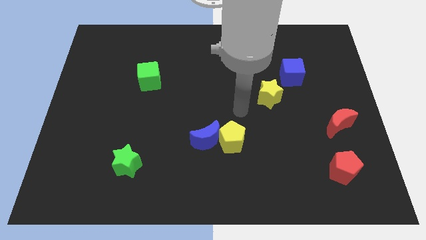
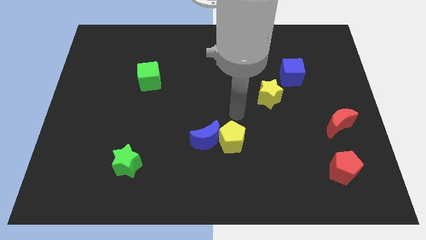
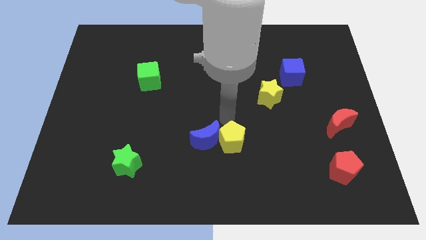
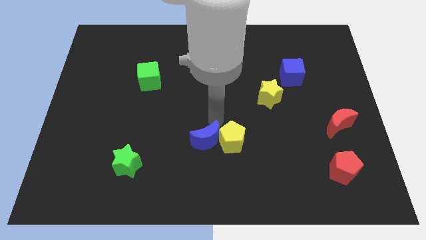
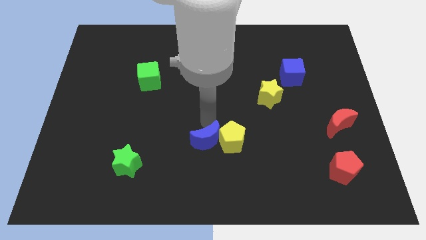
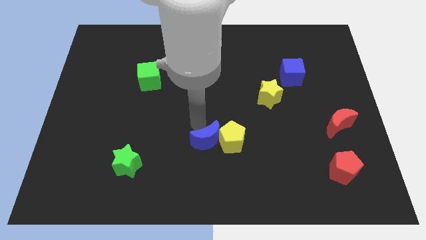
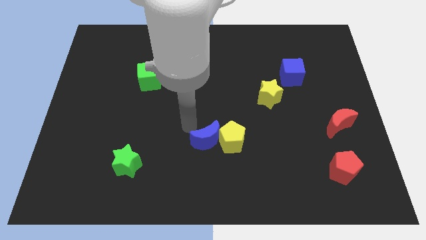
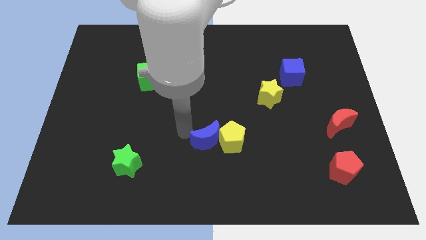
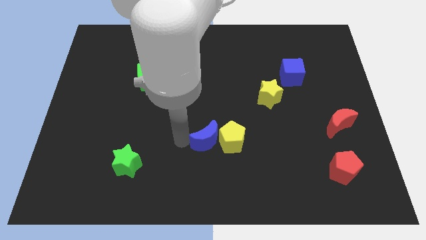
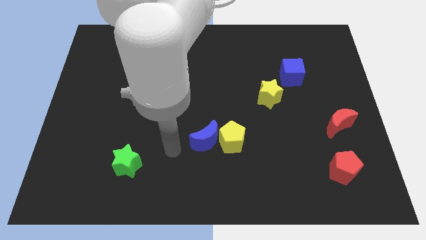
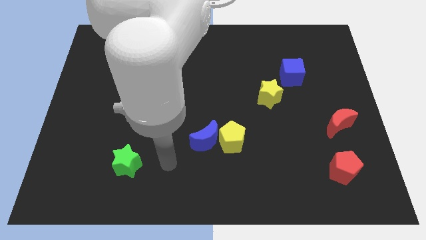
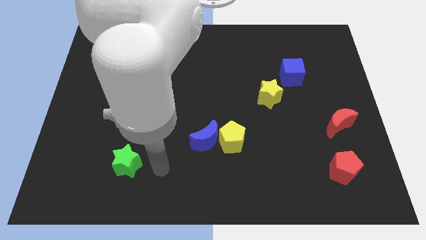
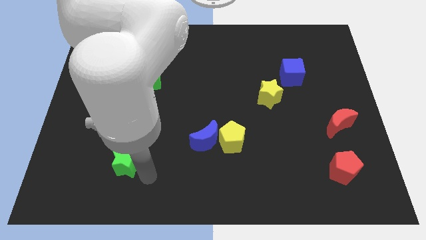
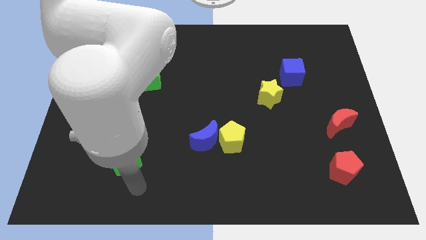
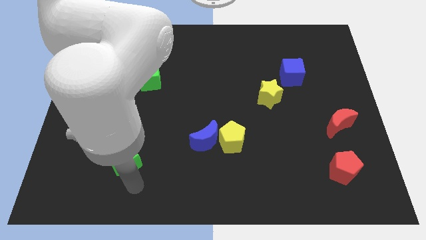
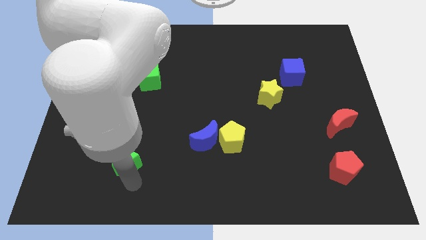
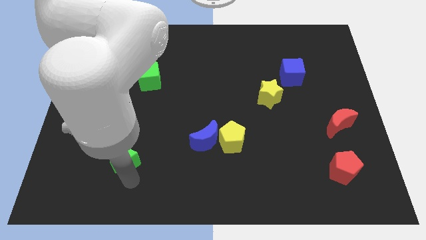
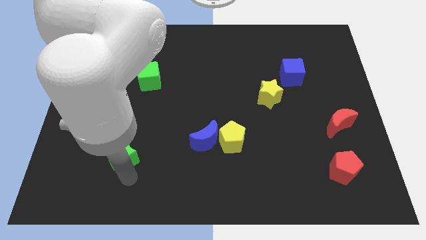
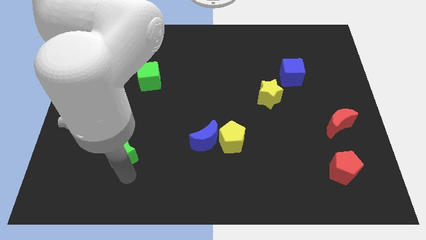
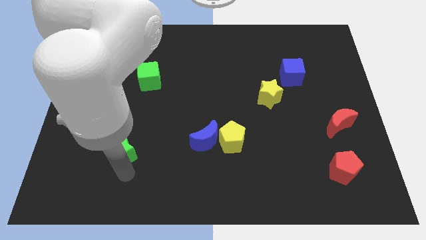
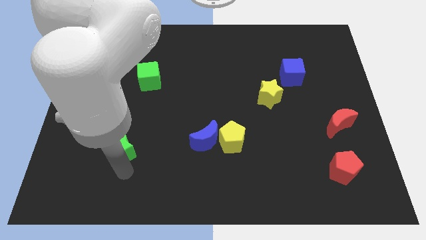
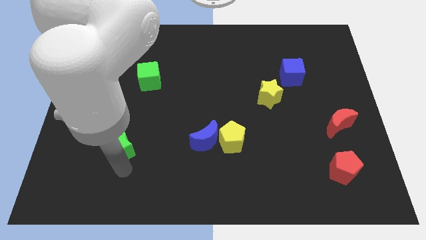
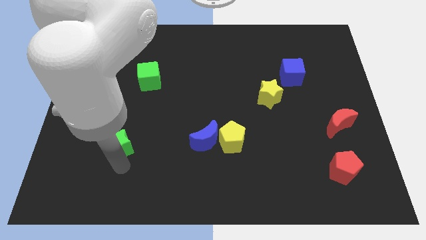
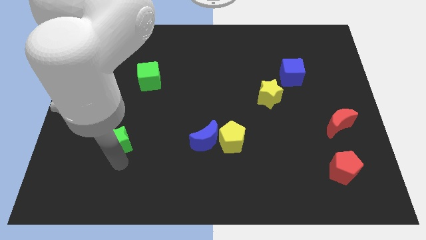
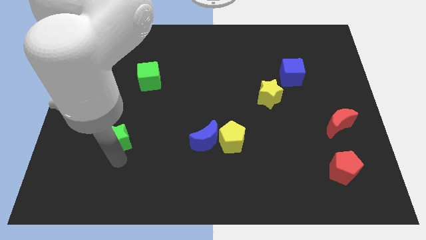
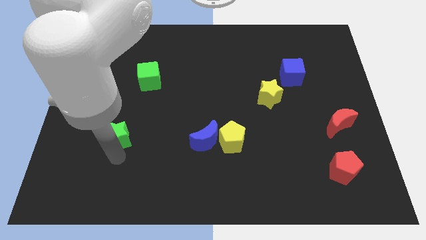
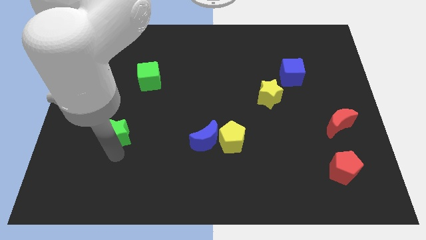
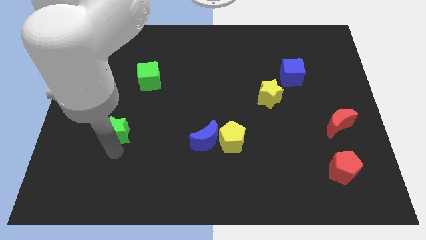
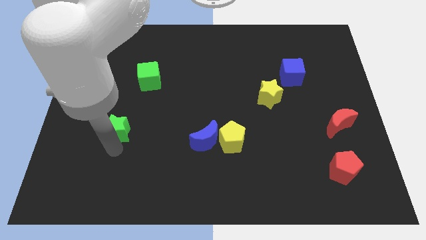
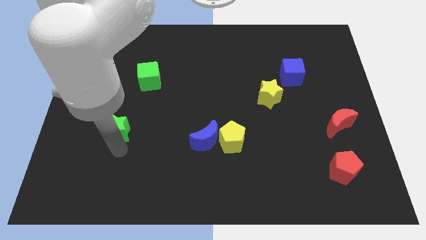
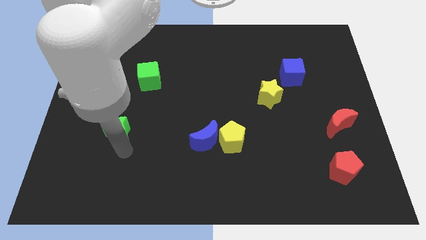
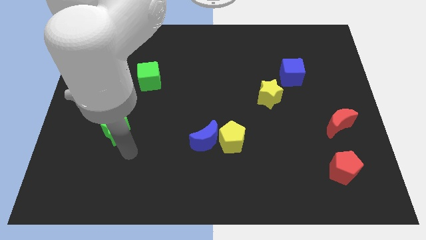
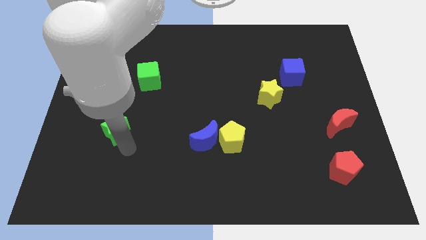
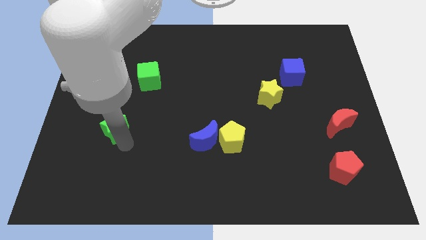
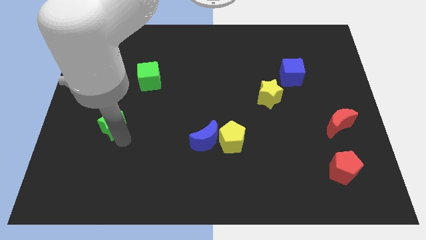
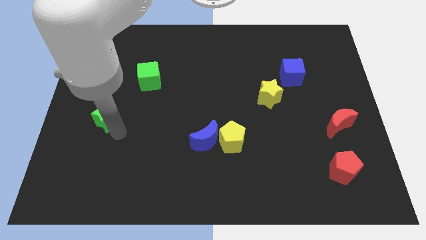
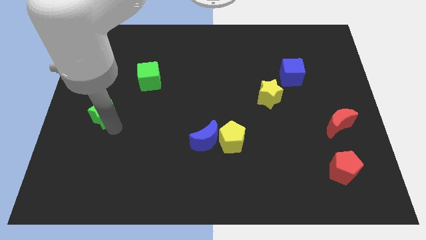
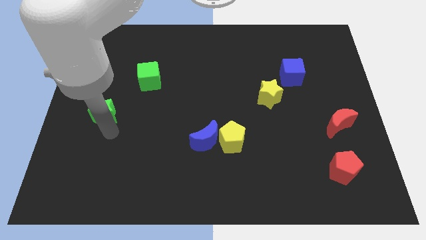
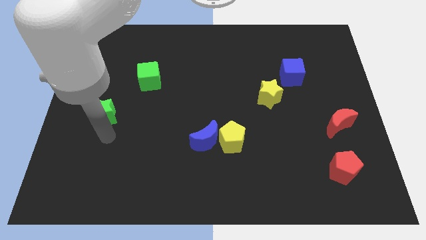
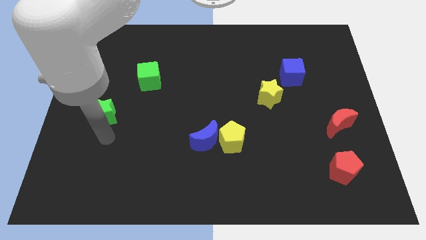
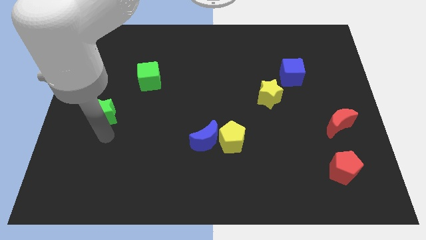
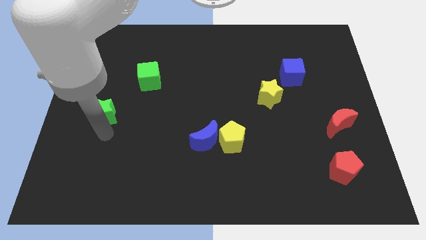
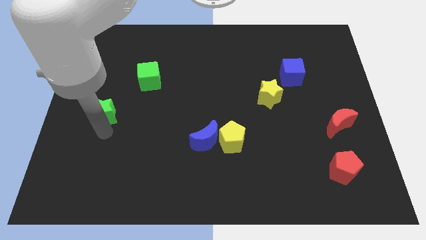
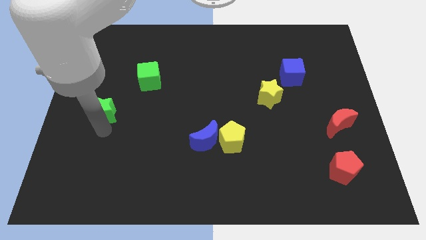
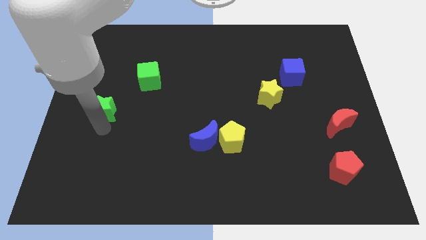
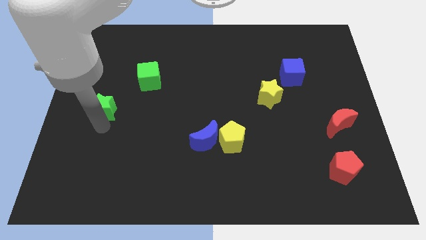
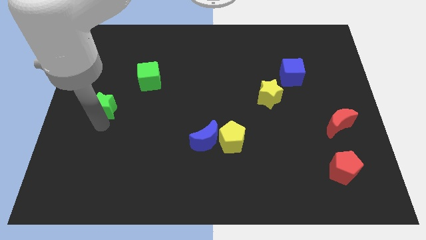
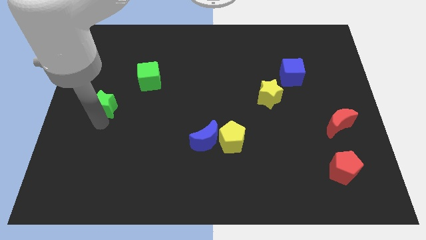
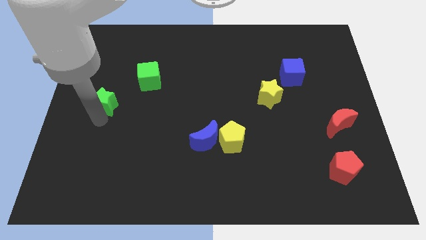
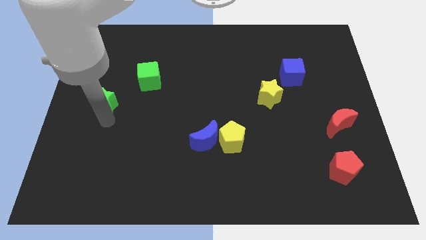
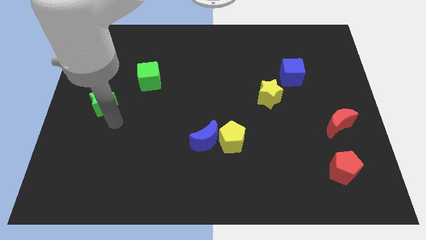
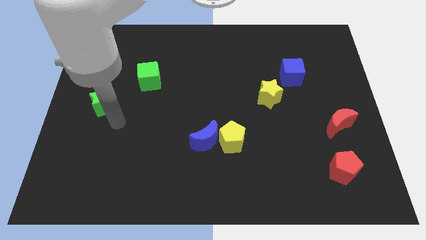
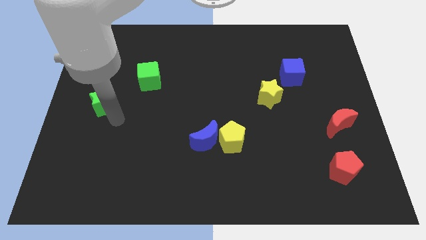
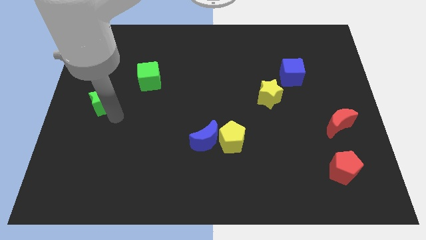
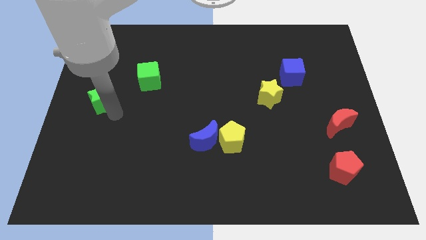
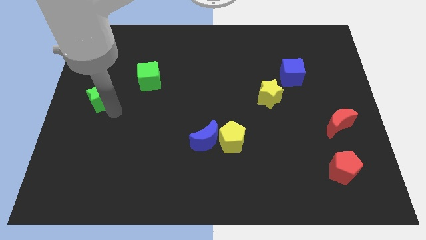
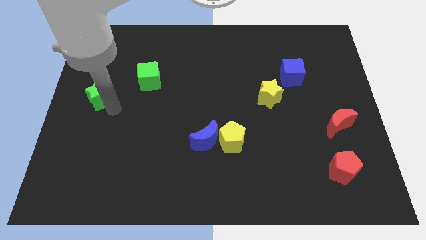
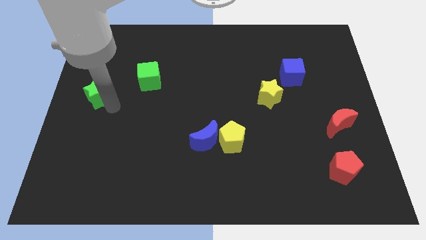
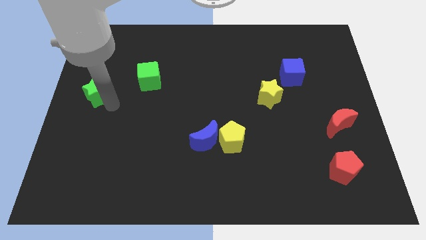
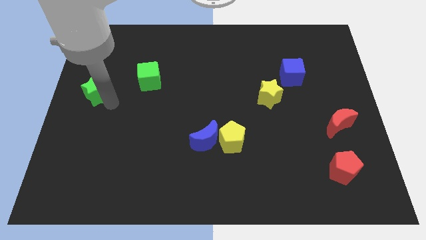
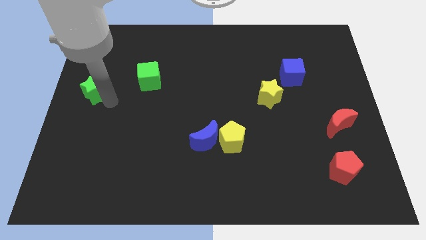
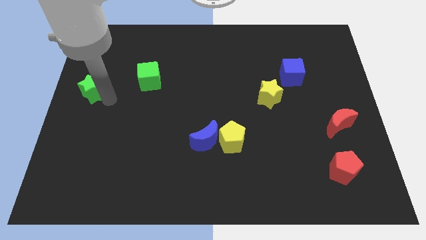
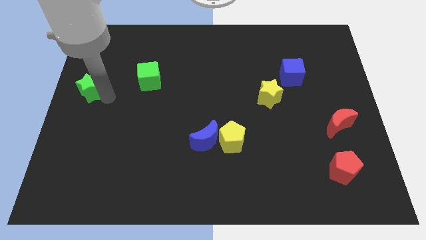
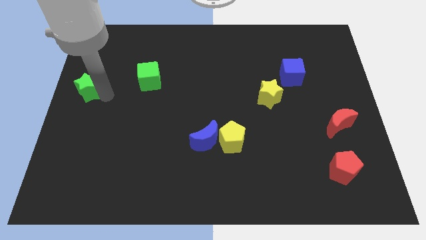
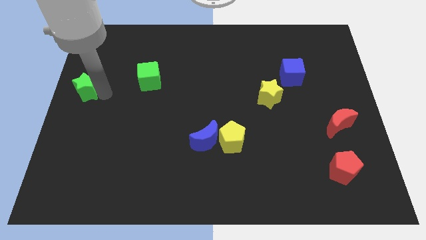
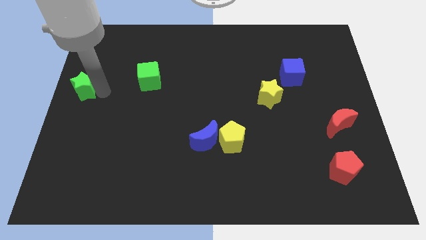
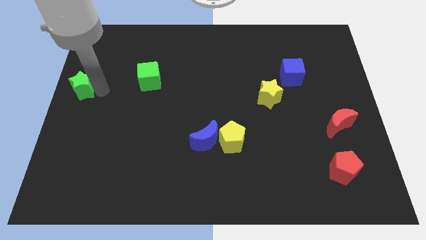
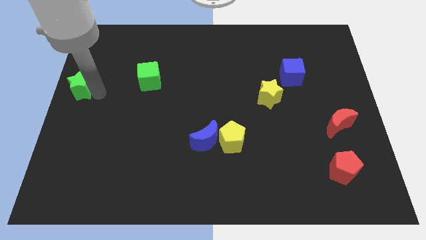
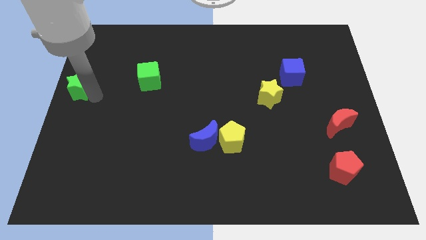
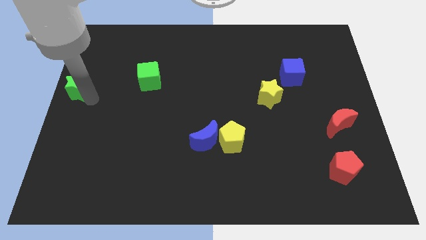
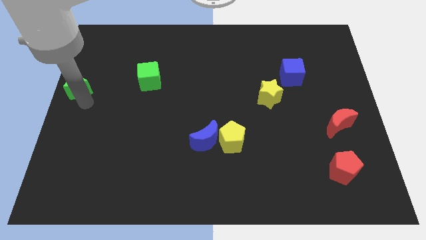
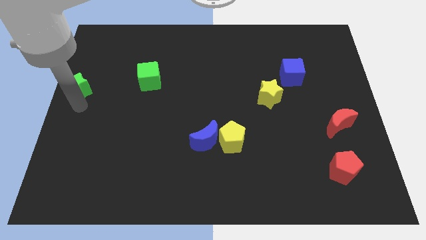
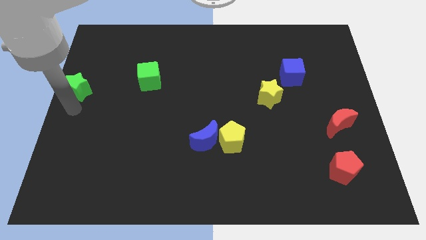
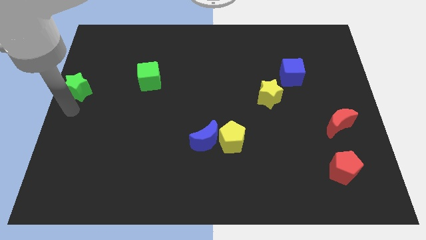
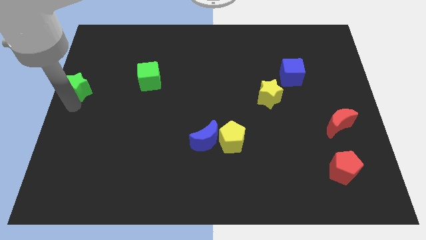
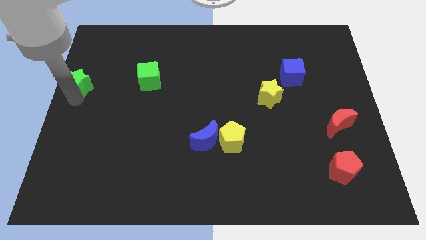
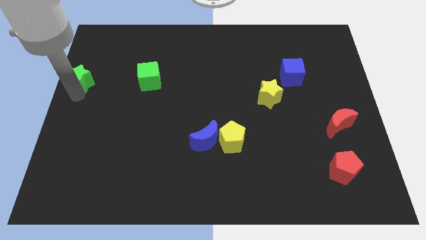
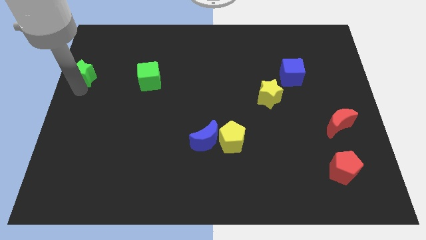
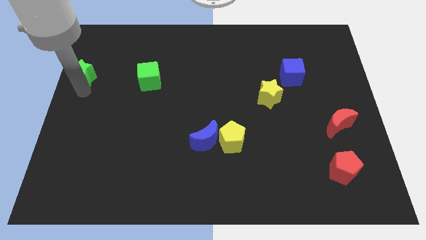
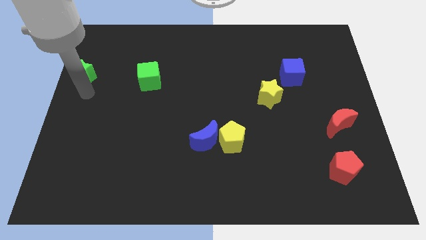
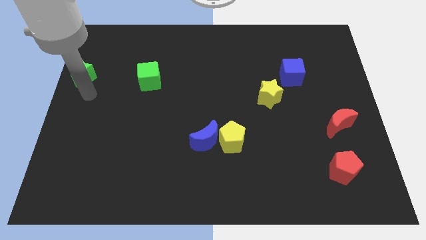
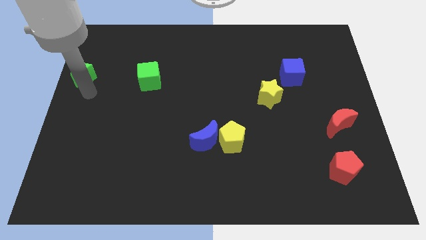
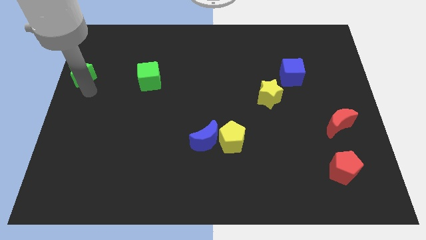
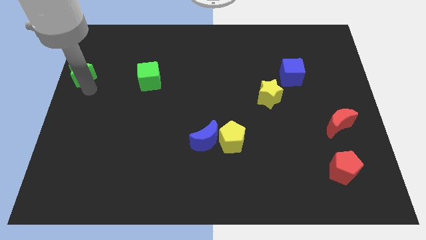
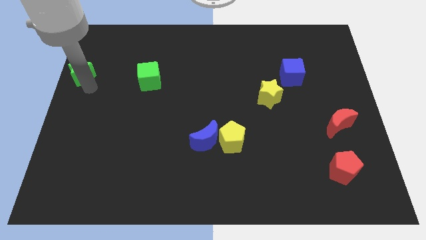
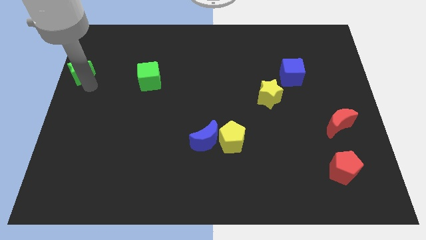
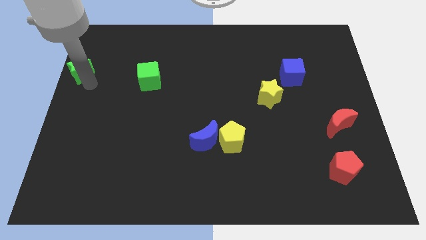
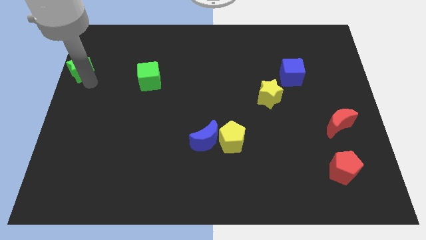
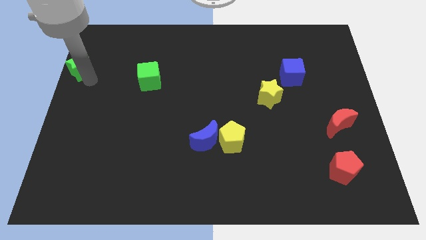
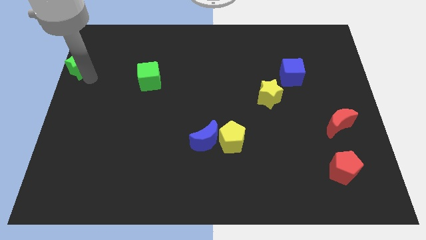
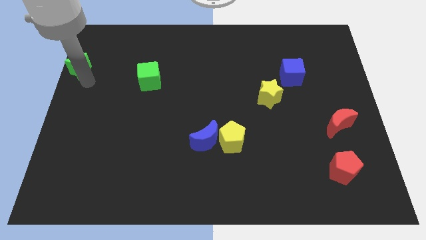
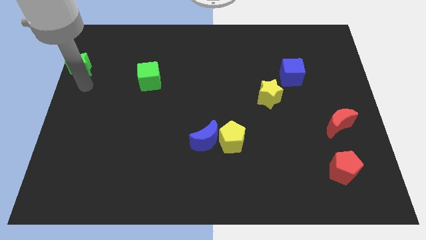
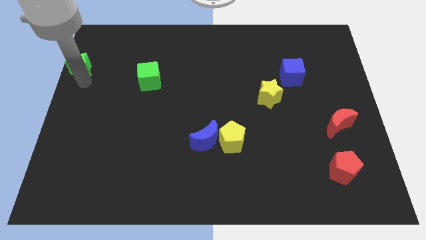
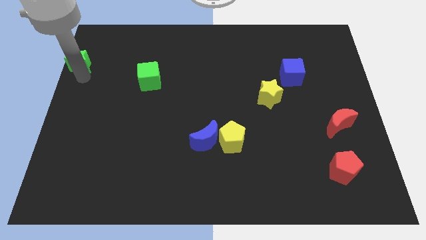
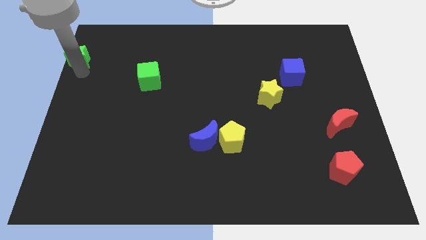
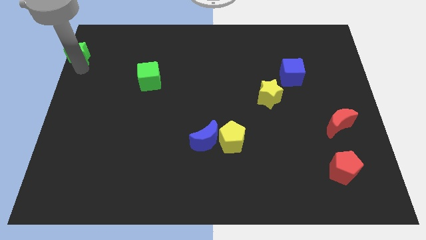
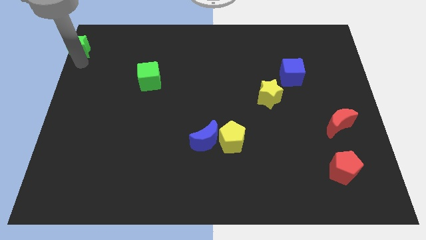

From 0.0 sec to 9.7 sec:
push the green star to the top left
